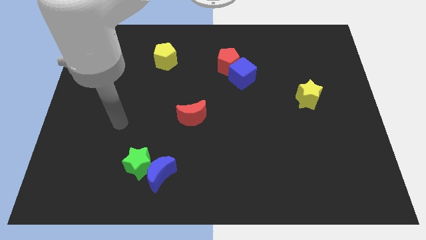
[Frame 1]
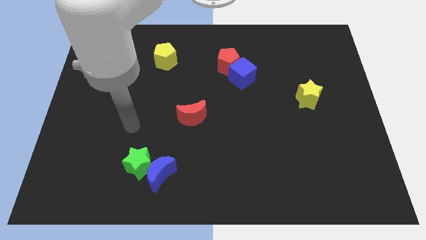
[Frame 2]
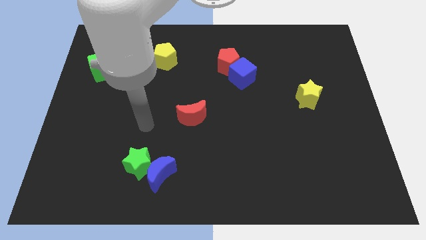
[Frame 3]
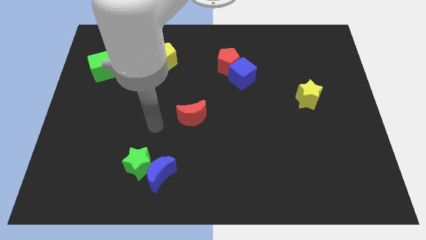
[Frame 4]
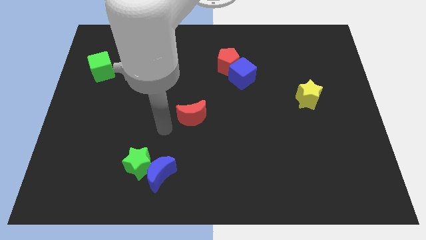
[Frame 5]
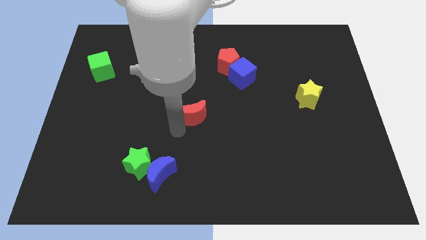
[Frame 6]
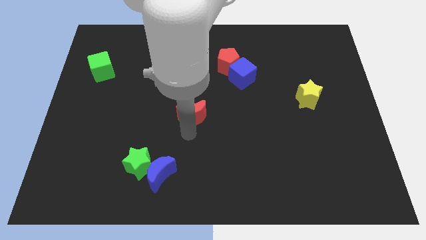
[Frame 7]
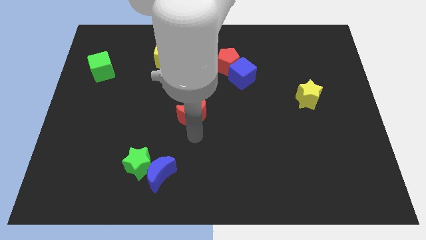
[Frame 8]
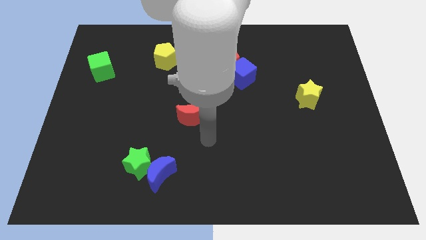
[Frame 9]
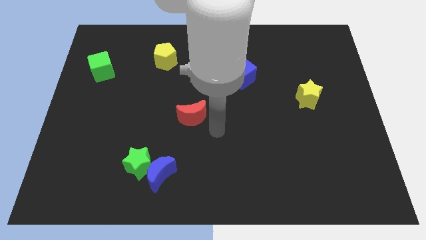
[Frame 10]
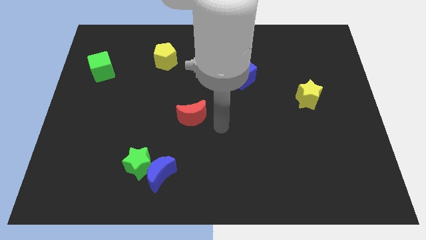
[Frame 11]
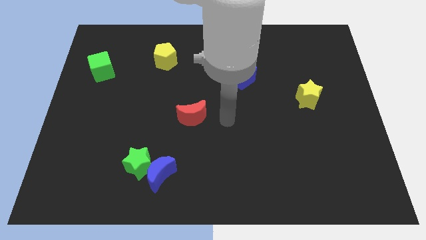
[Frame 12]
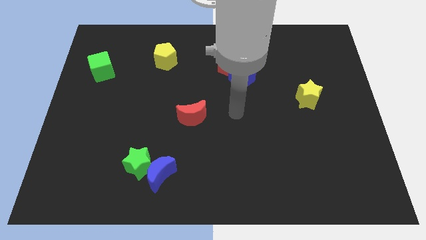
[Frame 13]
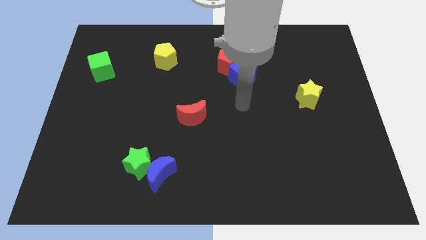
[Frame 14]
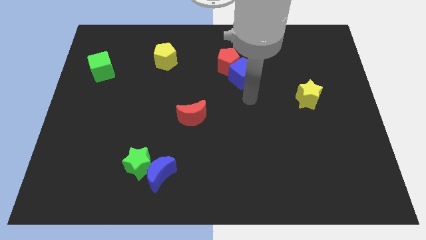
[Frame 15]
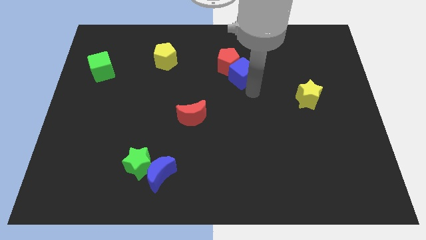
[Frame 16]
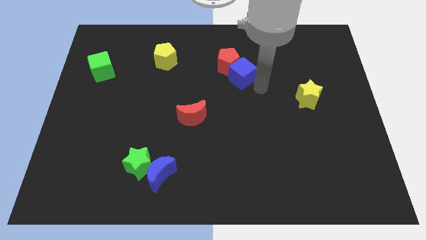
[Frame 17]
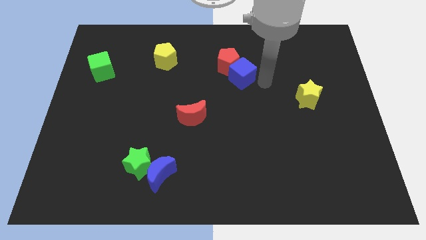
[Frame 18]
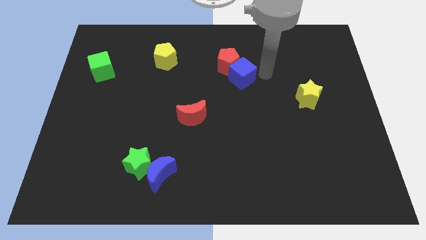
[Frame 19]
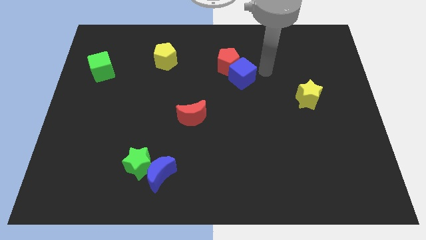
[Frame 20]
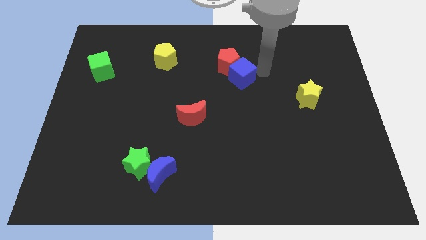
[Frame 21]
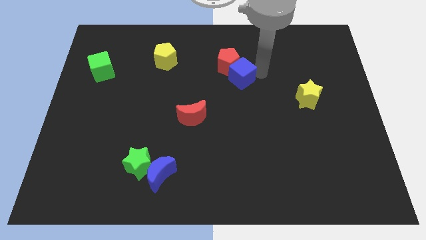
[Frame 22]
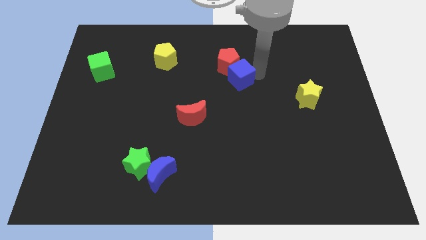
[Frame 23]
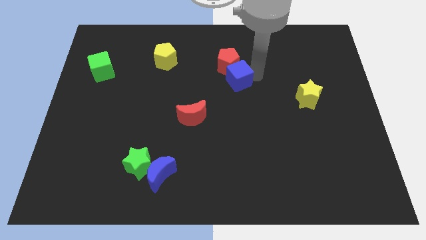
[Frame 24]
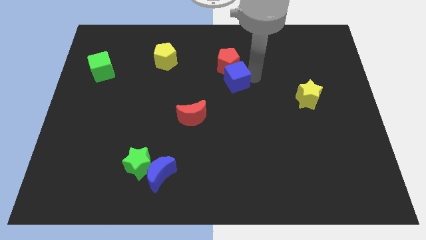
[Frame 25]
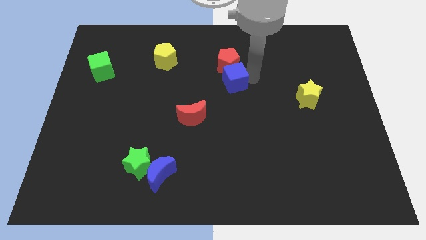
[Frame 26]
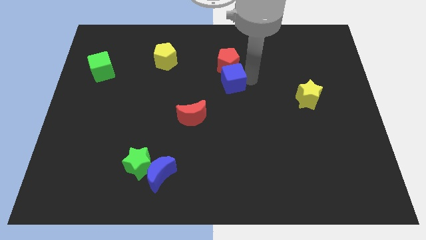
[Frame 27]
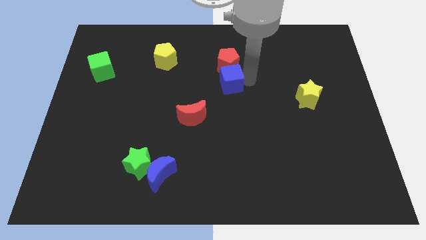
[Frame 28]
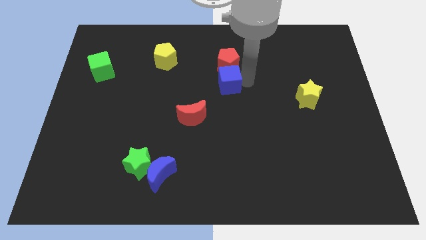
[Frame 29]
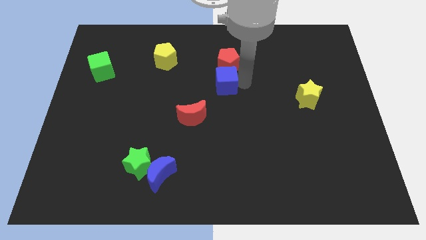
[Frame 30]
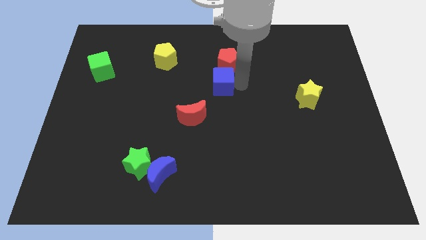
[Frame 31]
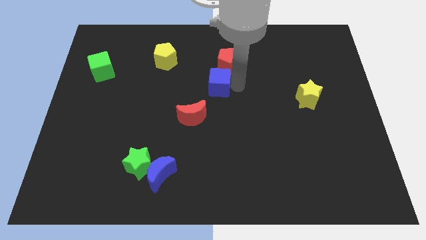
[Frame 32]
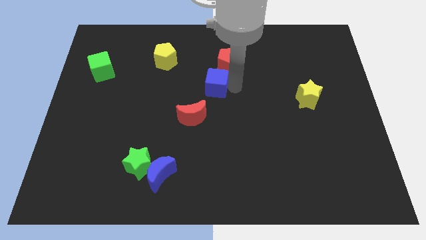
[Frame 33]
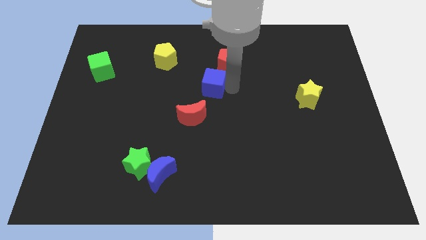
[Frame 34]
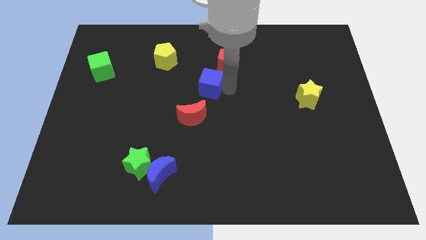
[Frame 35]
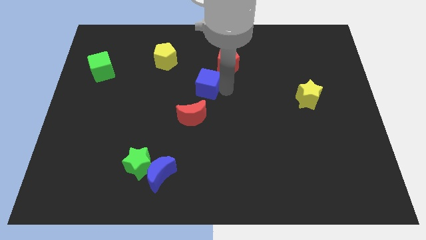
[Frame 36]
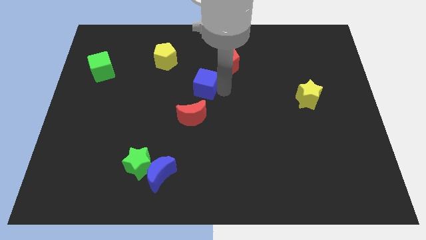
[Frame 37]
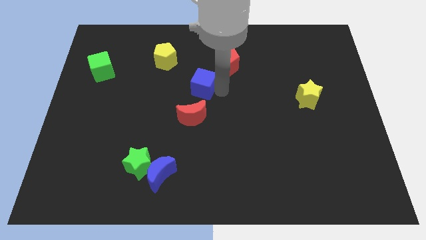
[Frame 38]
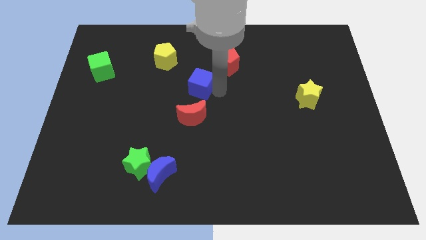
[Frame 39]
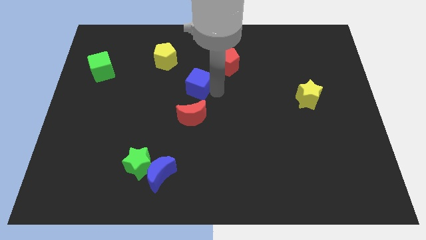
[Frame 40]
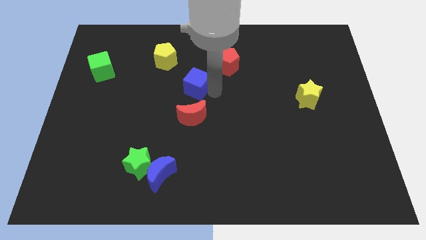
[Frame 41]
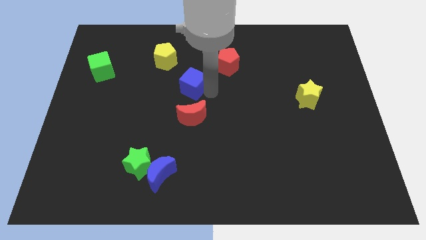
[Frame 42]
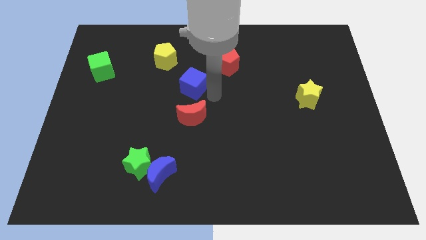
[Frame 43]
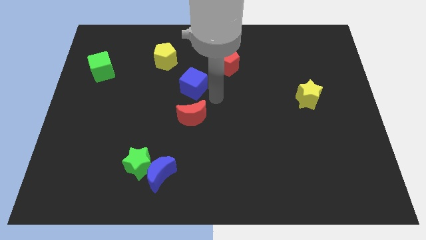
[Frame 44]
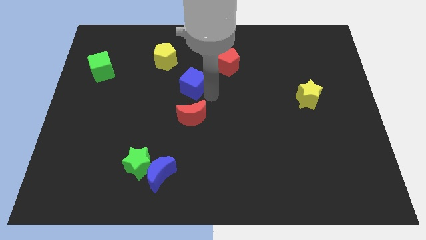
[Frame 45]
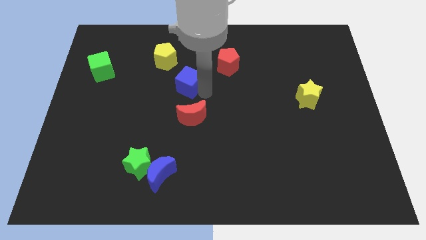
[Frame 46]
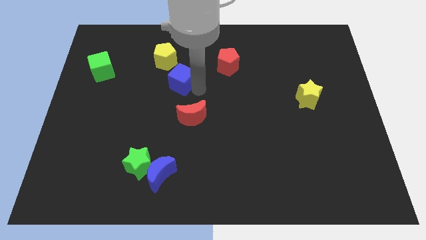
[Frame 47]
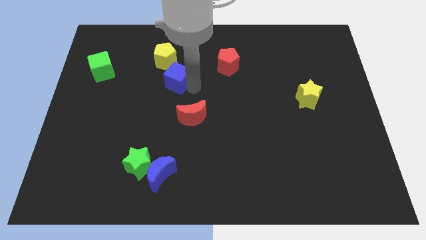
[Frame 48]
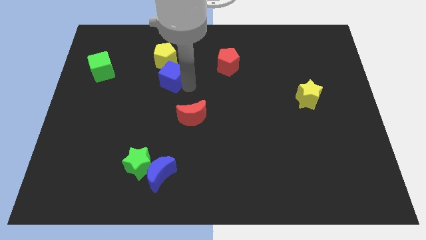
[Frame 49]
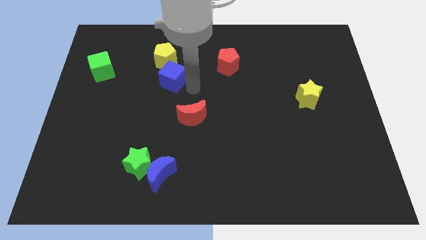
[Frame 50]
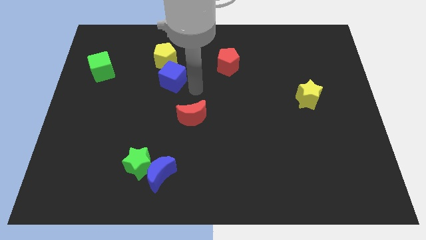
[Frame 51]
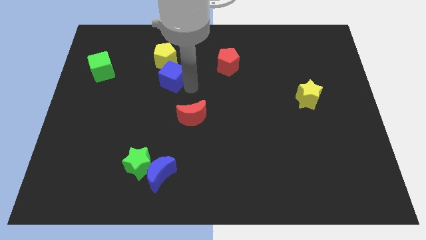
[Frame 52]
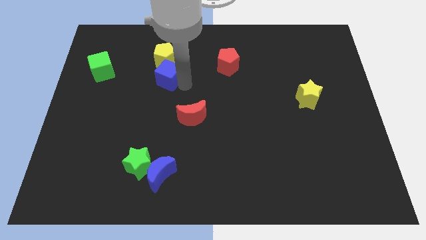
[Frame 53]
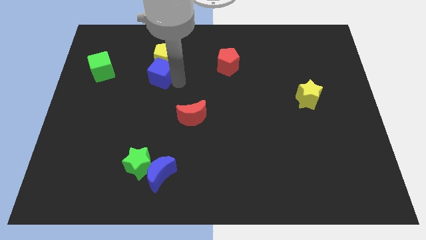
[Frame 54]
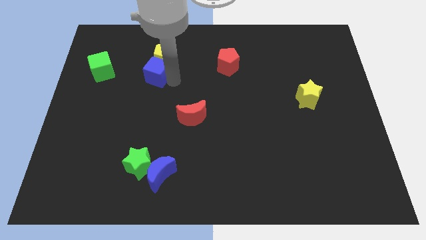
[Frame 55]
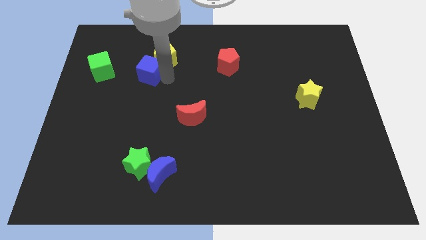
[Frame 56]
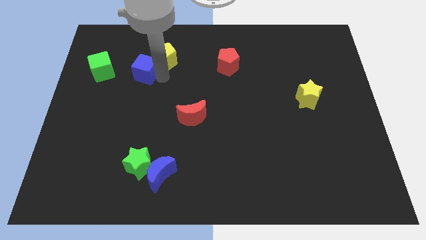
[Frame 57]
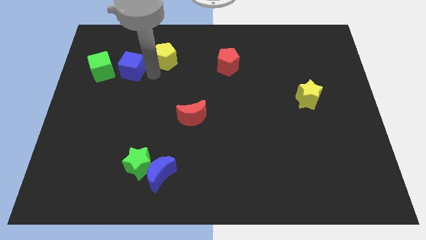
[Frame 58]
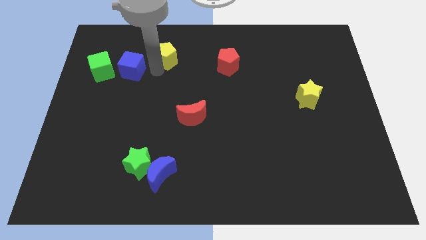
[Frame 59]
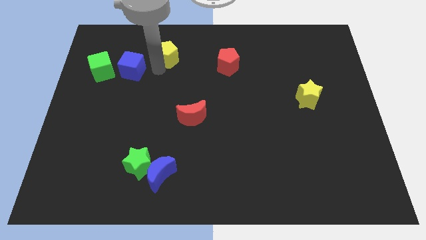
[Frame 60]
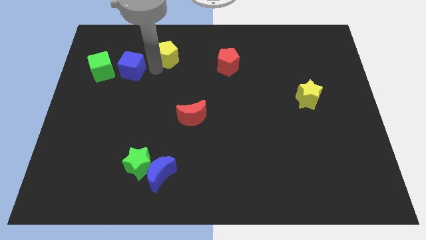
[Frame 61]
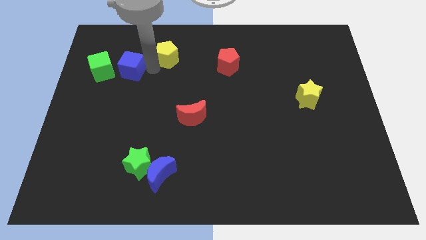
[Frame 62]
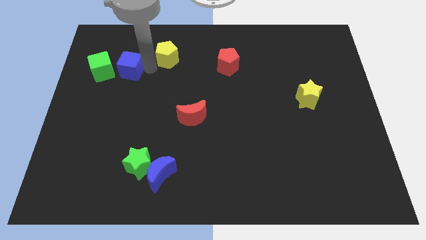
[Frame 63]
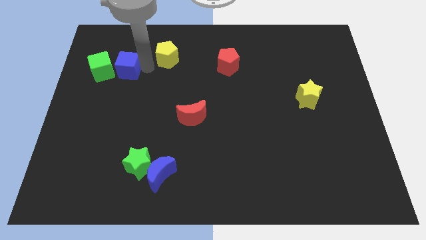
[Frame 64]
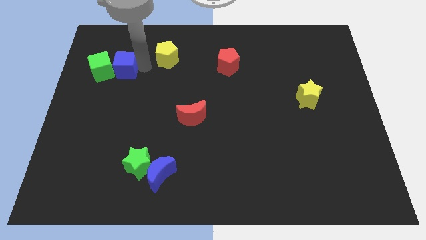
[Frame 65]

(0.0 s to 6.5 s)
slide the blue cube to the green cube
